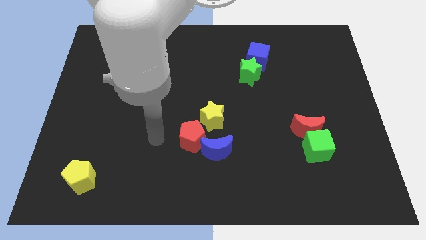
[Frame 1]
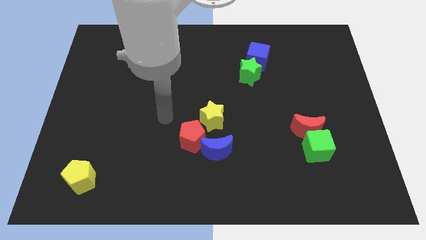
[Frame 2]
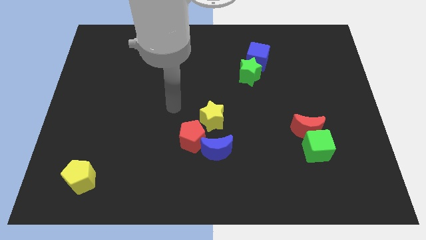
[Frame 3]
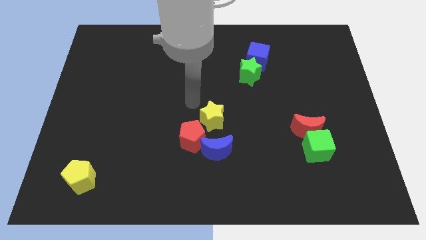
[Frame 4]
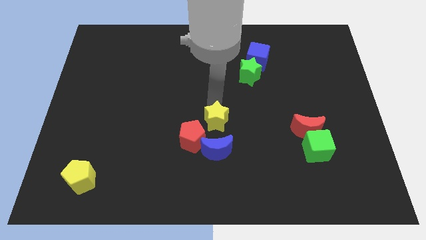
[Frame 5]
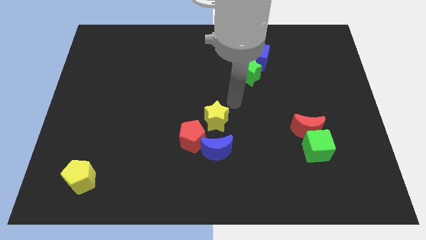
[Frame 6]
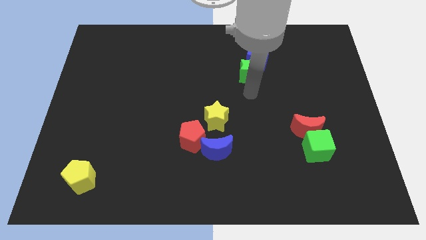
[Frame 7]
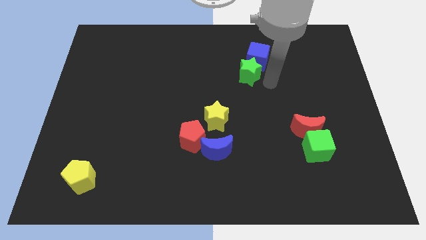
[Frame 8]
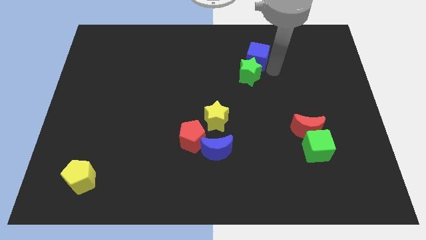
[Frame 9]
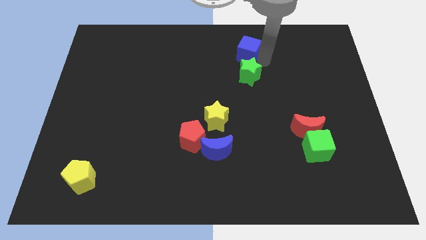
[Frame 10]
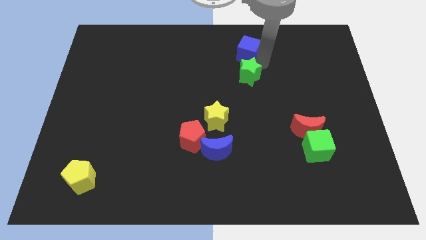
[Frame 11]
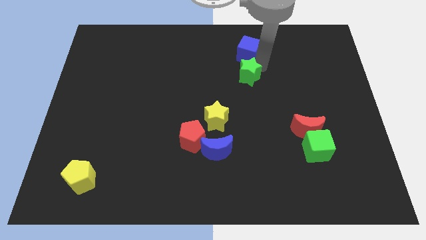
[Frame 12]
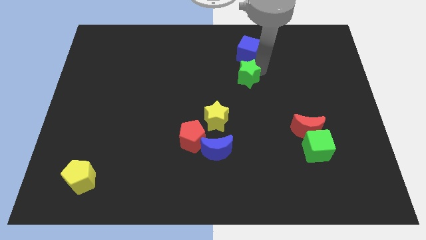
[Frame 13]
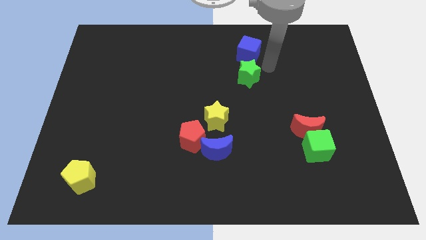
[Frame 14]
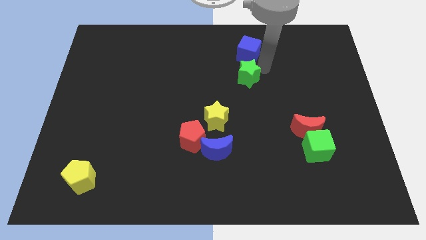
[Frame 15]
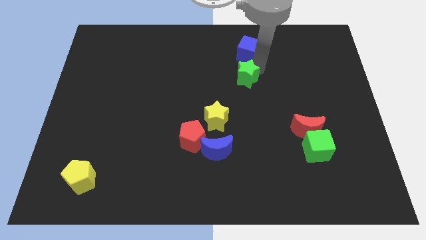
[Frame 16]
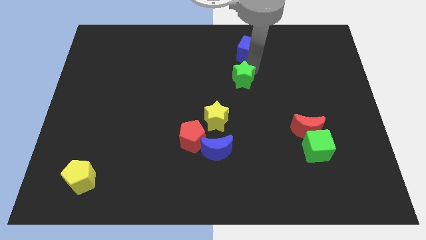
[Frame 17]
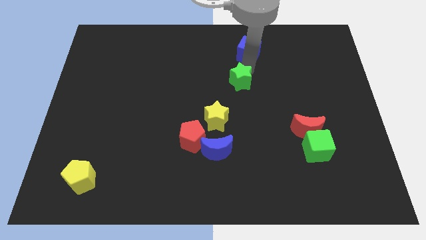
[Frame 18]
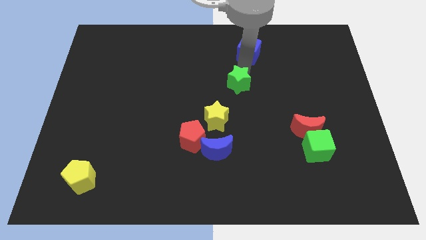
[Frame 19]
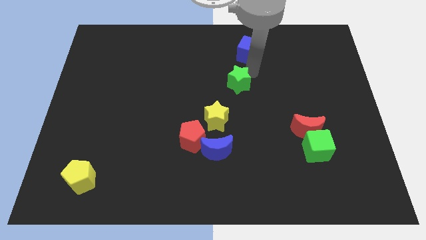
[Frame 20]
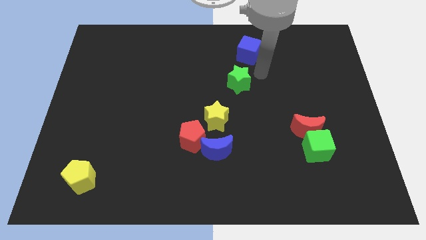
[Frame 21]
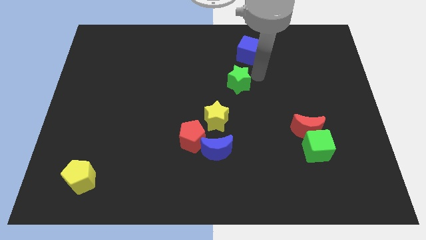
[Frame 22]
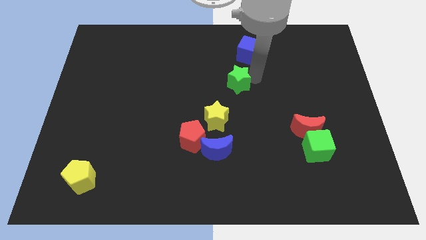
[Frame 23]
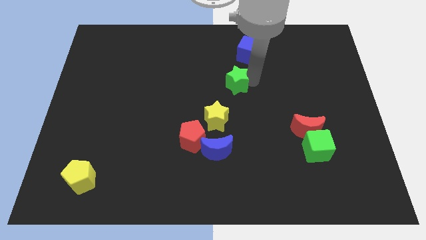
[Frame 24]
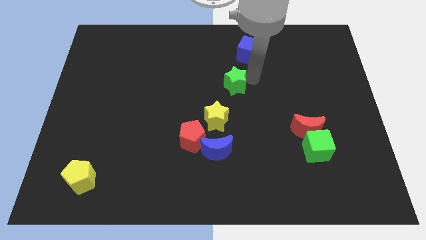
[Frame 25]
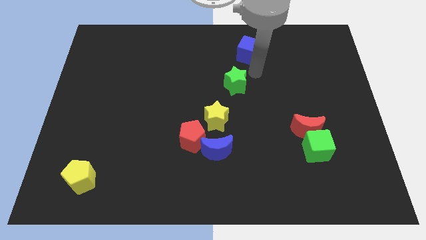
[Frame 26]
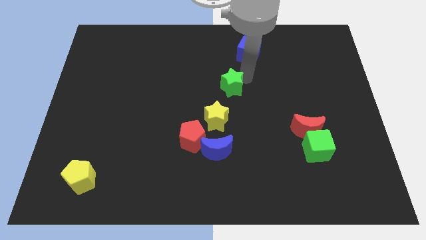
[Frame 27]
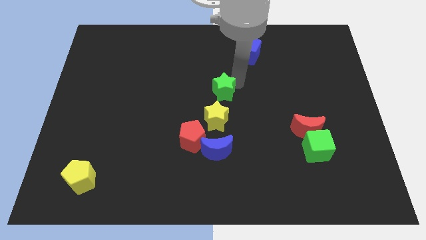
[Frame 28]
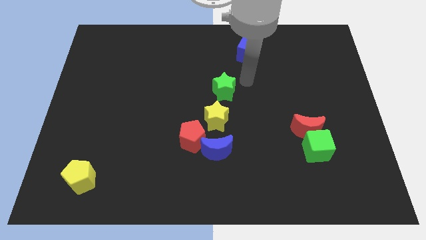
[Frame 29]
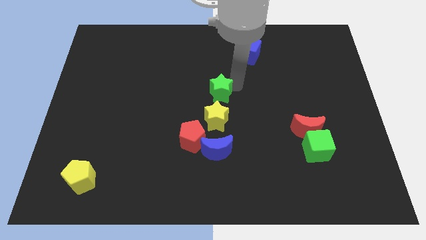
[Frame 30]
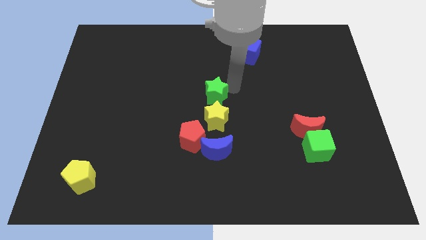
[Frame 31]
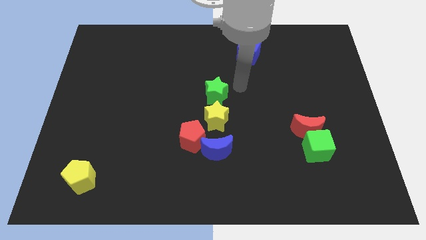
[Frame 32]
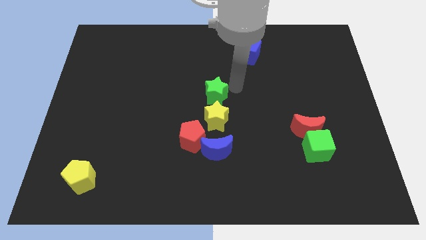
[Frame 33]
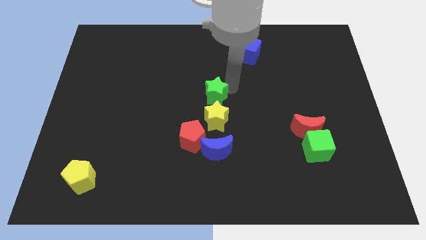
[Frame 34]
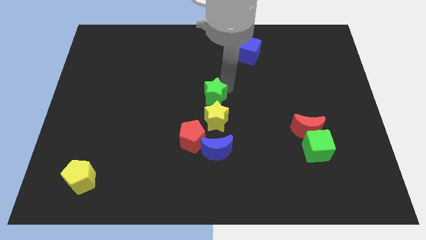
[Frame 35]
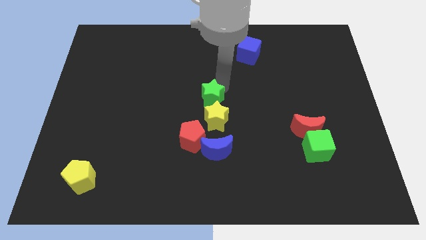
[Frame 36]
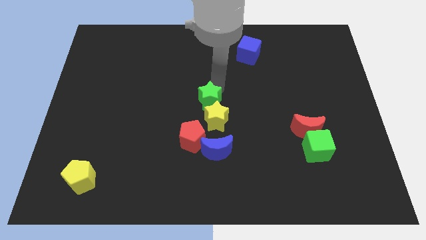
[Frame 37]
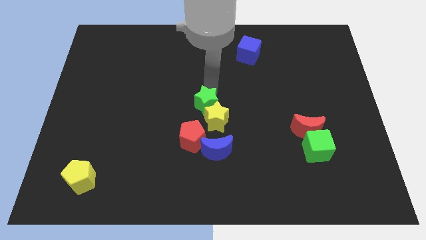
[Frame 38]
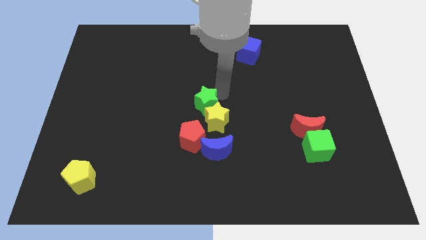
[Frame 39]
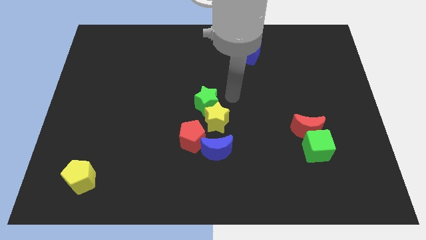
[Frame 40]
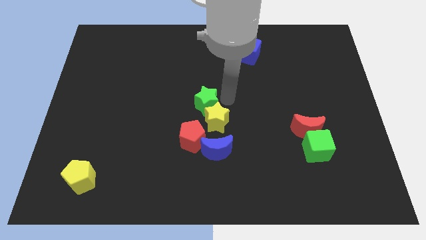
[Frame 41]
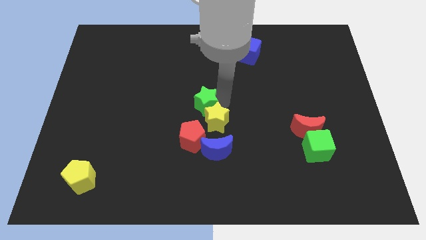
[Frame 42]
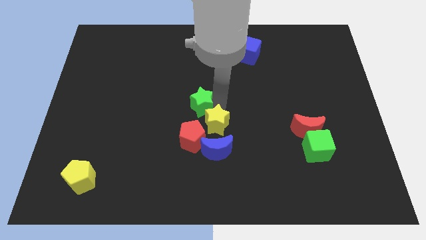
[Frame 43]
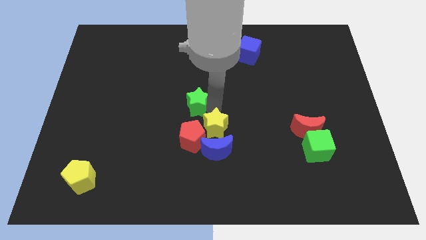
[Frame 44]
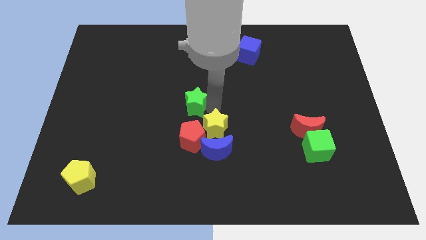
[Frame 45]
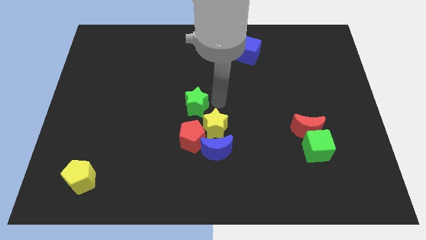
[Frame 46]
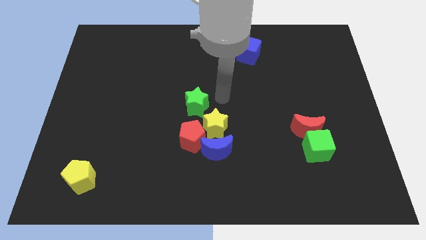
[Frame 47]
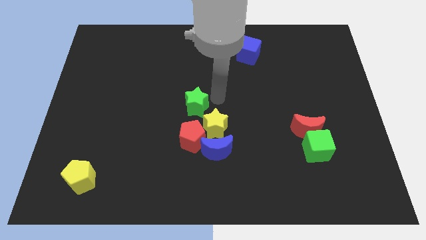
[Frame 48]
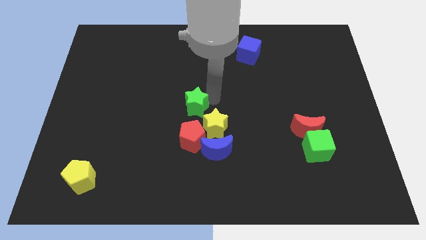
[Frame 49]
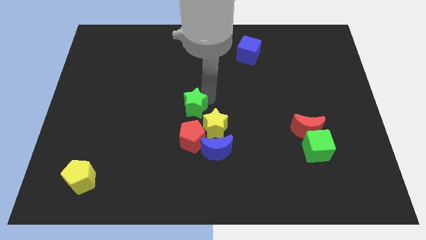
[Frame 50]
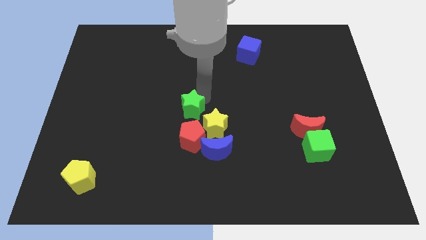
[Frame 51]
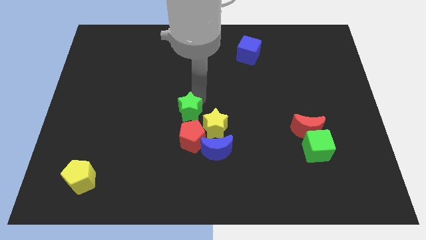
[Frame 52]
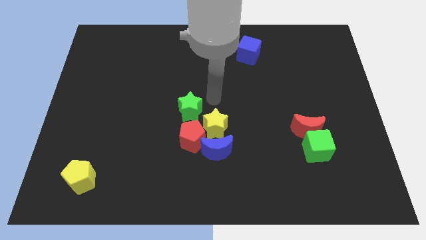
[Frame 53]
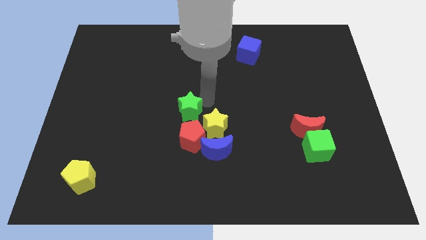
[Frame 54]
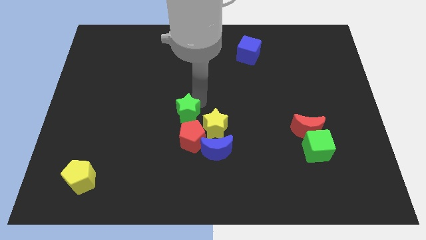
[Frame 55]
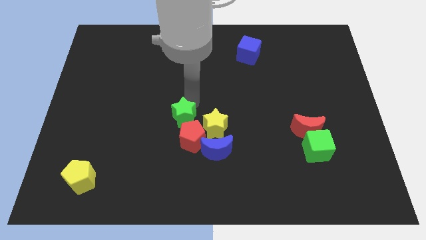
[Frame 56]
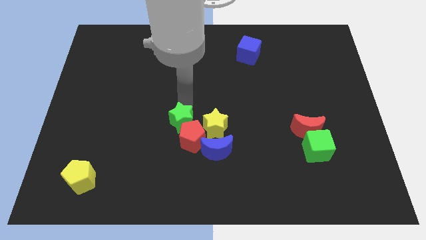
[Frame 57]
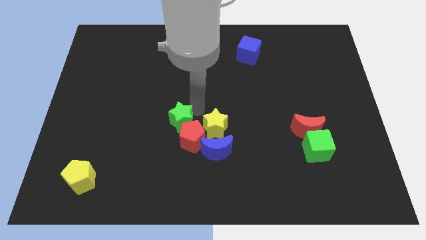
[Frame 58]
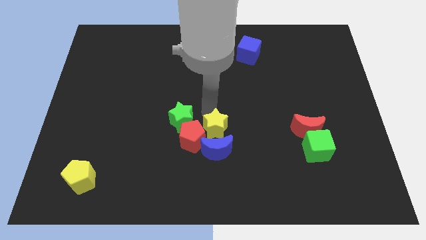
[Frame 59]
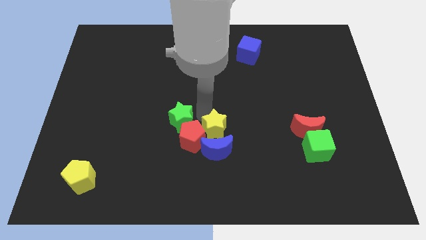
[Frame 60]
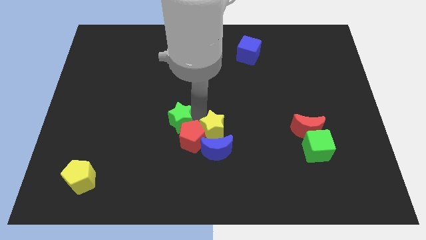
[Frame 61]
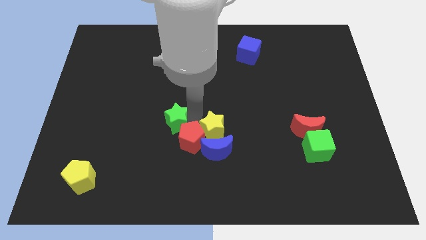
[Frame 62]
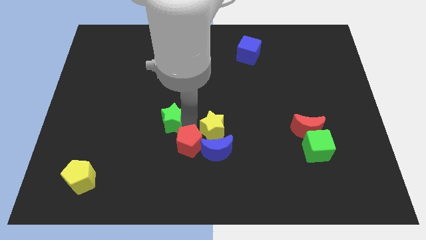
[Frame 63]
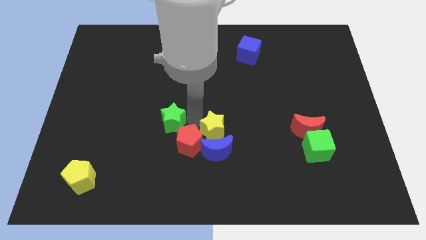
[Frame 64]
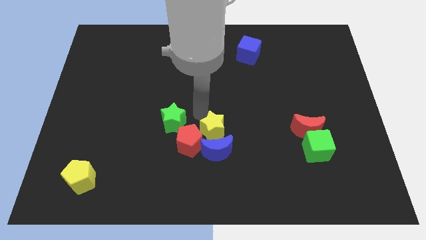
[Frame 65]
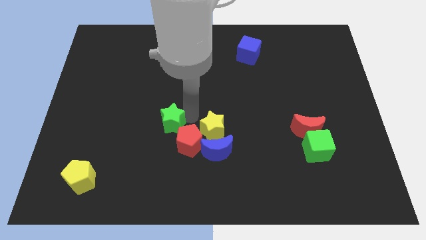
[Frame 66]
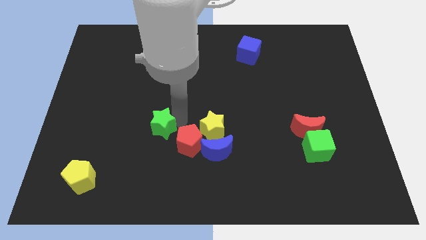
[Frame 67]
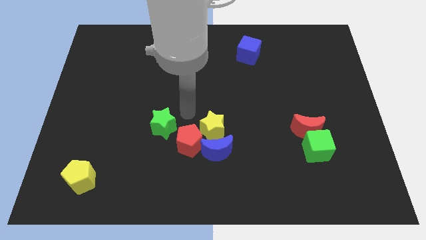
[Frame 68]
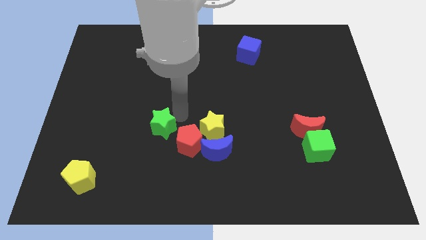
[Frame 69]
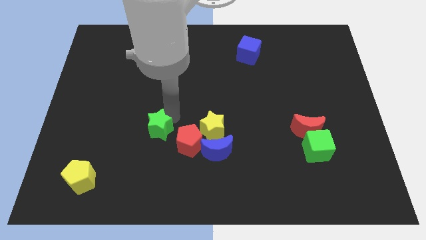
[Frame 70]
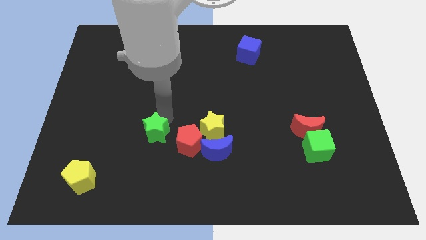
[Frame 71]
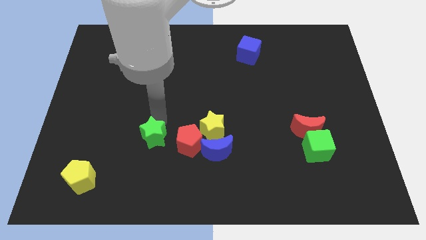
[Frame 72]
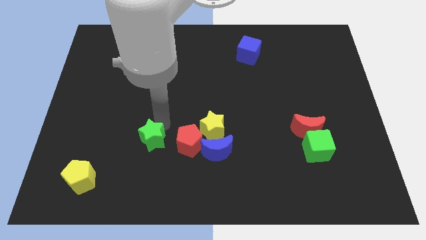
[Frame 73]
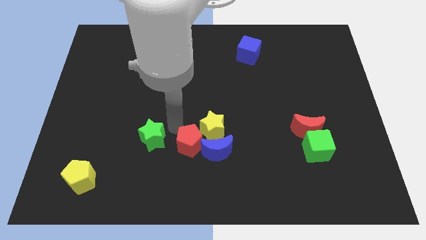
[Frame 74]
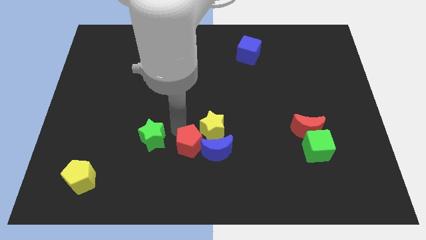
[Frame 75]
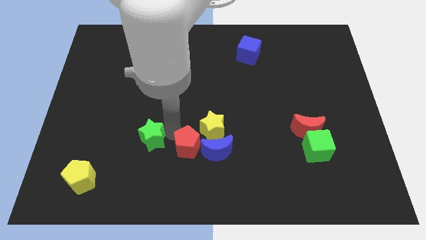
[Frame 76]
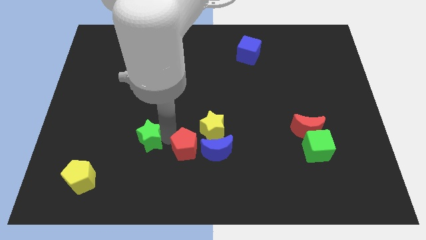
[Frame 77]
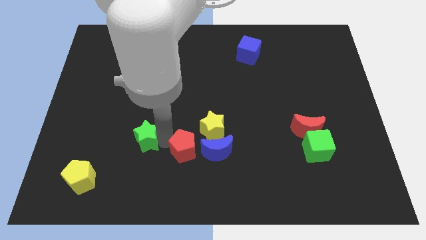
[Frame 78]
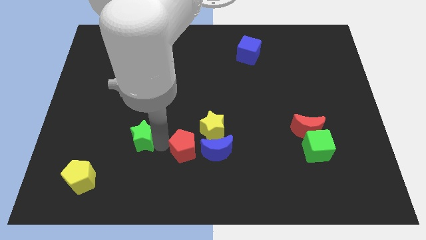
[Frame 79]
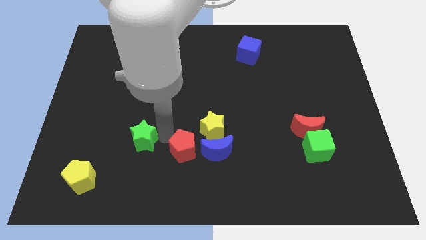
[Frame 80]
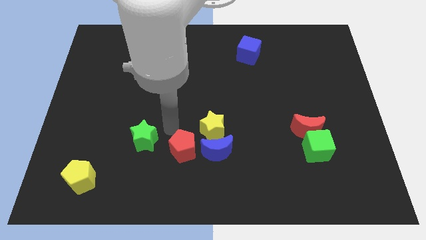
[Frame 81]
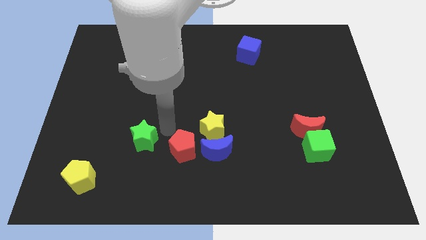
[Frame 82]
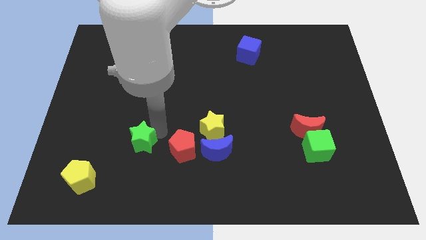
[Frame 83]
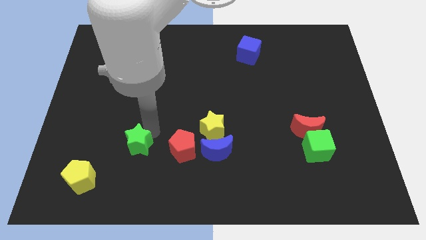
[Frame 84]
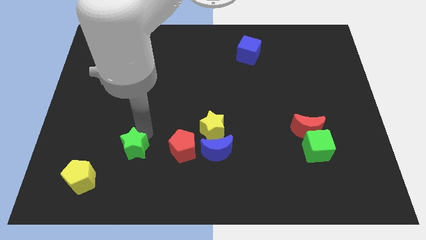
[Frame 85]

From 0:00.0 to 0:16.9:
put the green star diagonally up and to the right of the yellow pentagon
